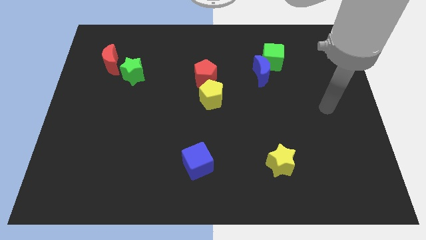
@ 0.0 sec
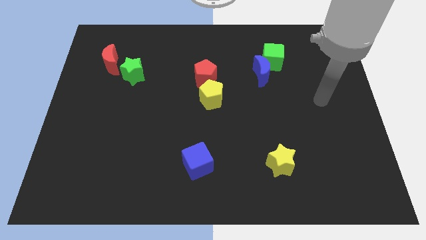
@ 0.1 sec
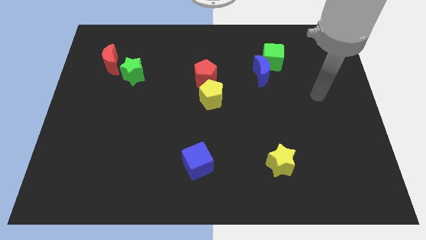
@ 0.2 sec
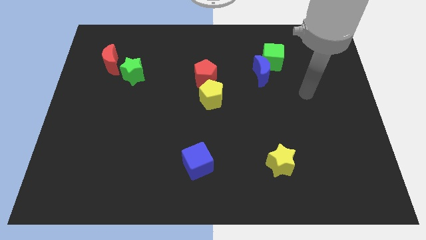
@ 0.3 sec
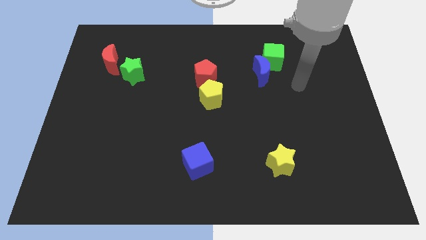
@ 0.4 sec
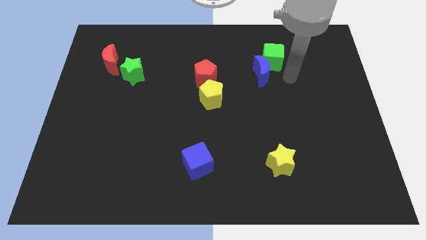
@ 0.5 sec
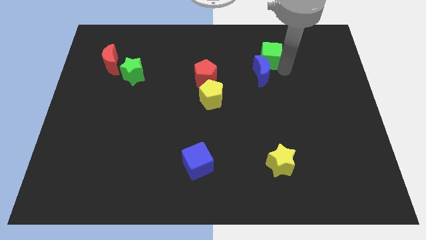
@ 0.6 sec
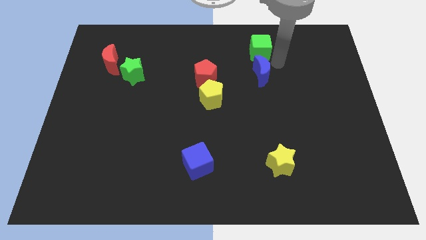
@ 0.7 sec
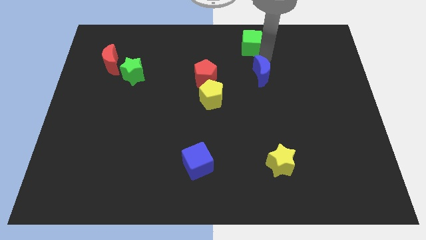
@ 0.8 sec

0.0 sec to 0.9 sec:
separate the blue moon from the green cube

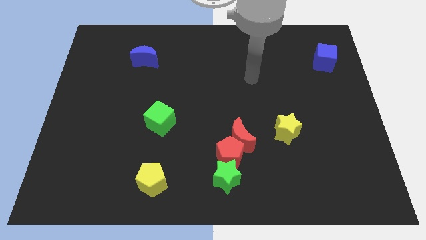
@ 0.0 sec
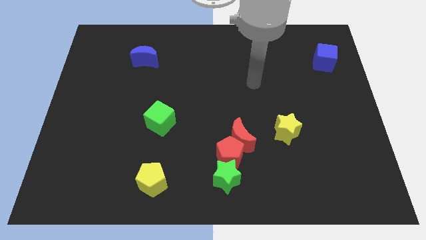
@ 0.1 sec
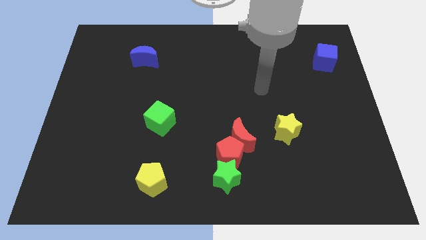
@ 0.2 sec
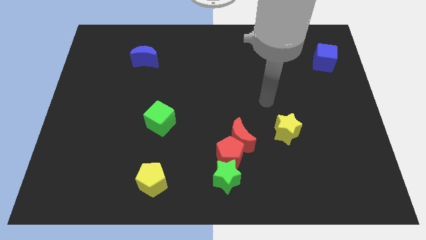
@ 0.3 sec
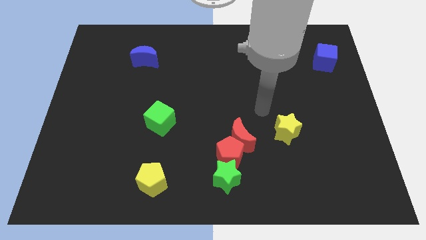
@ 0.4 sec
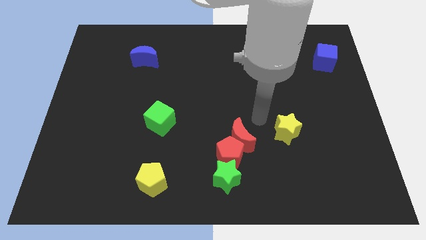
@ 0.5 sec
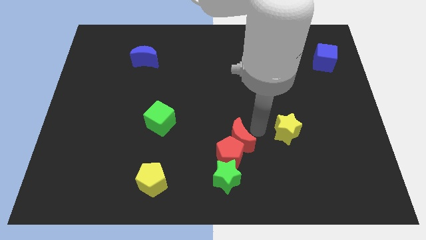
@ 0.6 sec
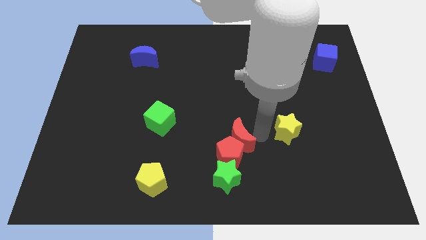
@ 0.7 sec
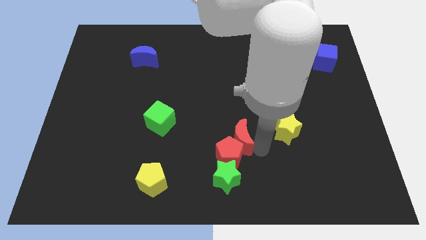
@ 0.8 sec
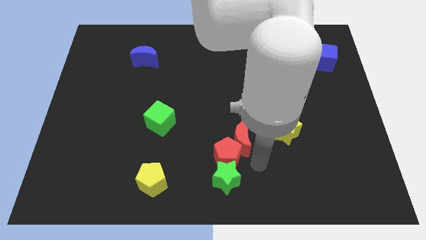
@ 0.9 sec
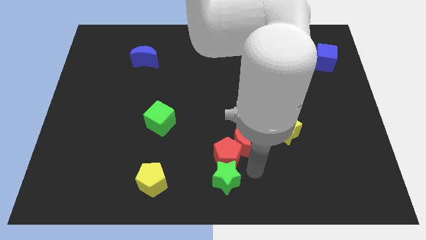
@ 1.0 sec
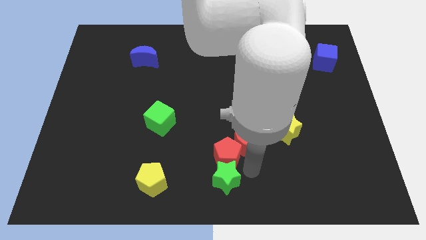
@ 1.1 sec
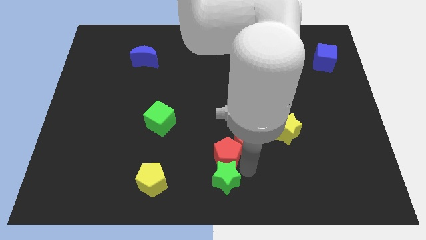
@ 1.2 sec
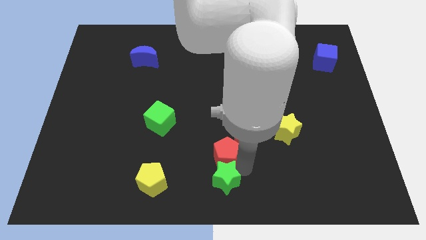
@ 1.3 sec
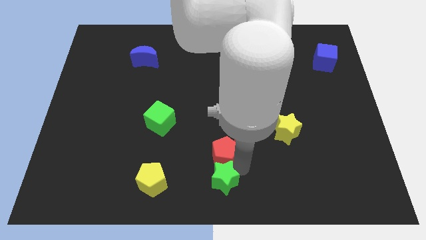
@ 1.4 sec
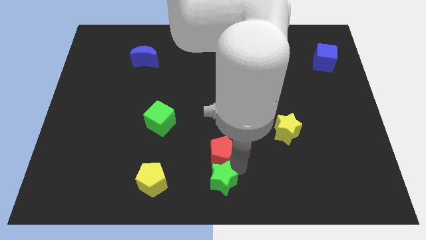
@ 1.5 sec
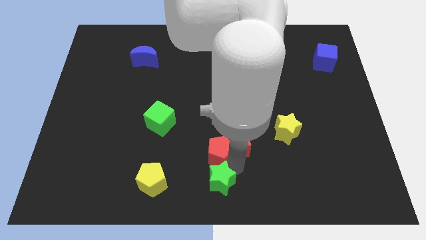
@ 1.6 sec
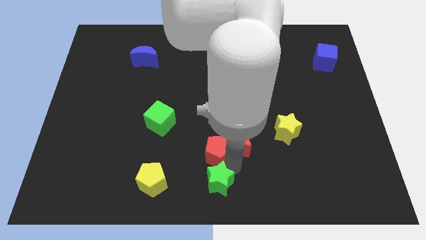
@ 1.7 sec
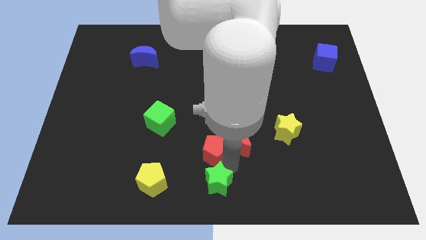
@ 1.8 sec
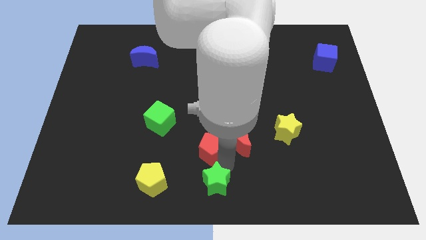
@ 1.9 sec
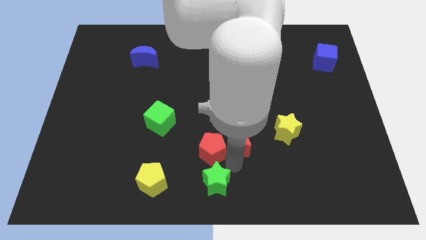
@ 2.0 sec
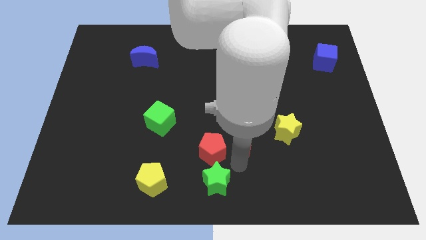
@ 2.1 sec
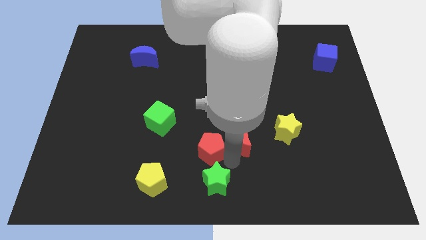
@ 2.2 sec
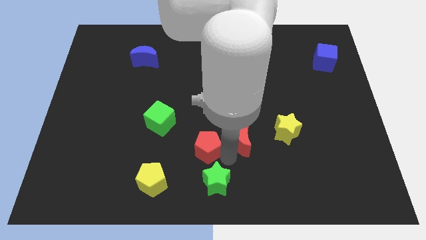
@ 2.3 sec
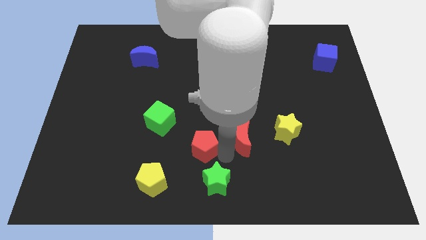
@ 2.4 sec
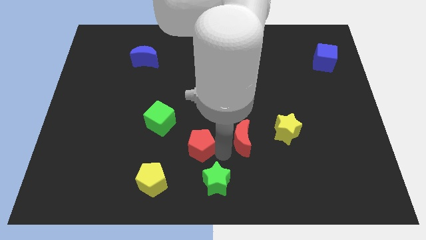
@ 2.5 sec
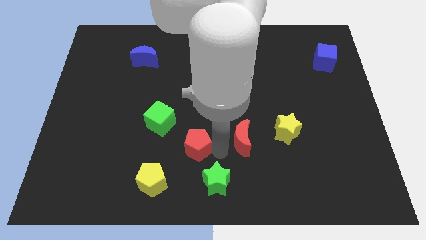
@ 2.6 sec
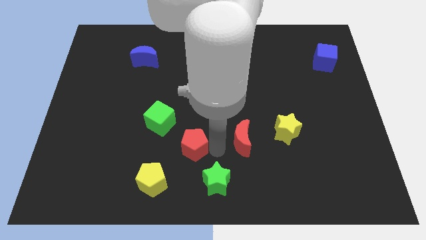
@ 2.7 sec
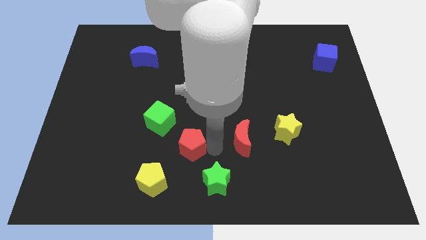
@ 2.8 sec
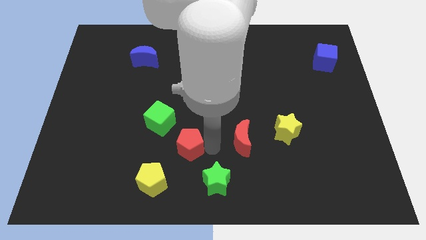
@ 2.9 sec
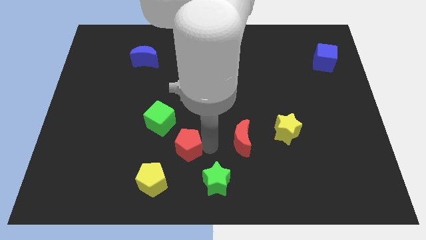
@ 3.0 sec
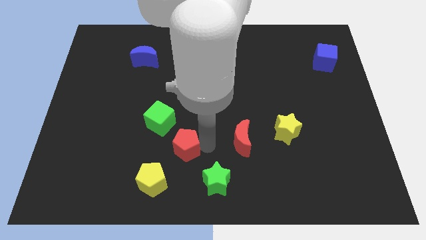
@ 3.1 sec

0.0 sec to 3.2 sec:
pull the red pentagon apart from the red moon and green star

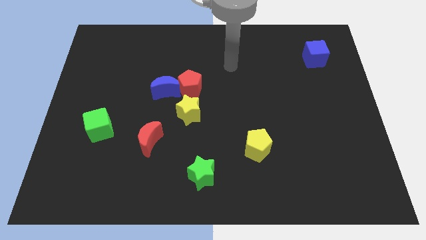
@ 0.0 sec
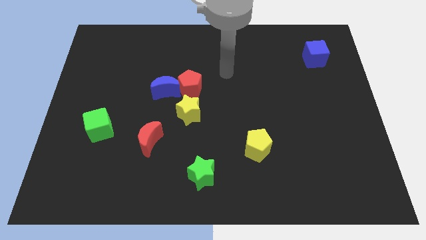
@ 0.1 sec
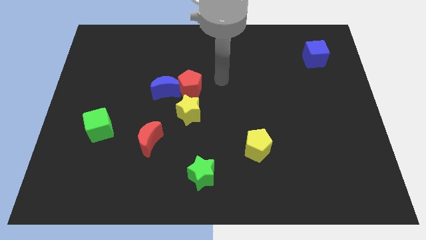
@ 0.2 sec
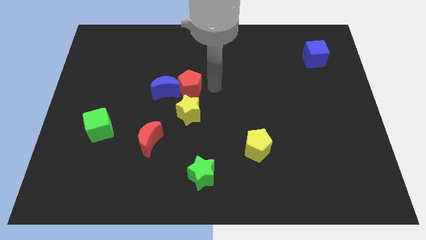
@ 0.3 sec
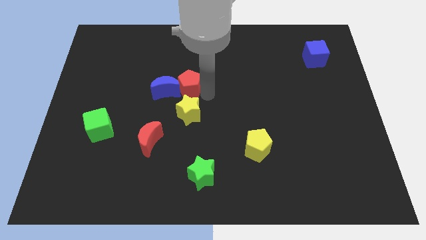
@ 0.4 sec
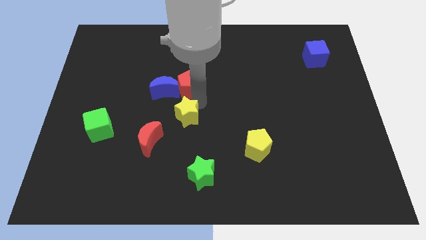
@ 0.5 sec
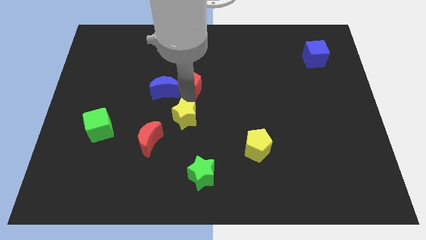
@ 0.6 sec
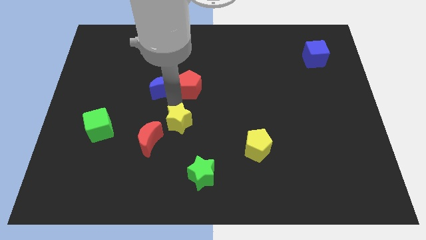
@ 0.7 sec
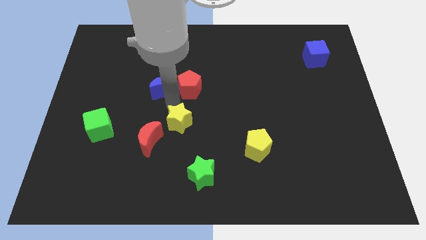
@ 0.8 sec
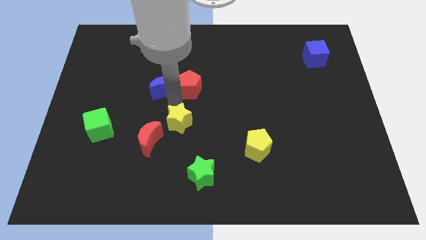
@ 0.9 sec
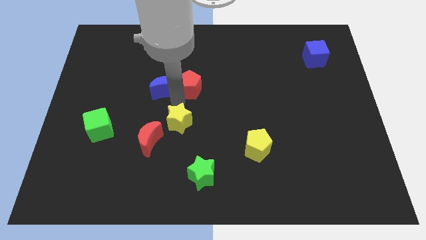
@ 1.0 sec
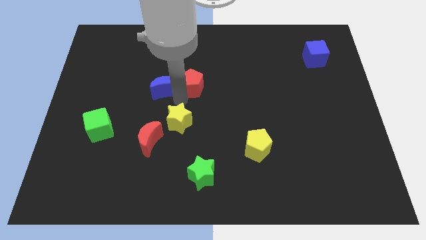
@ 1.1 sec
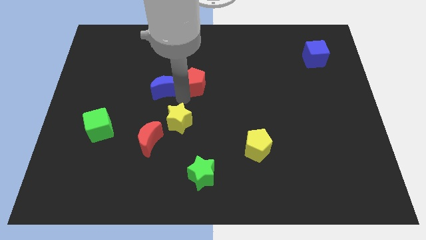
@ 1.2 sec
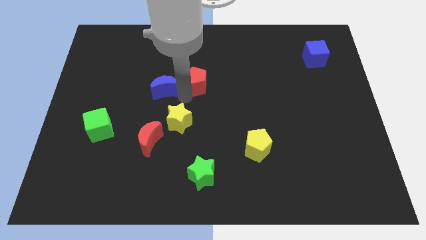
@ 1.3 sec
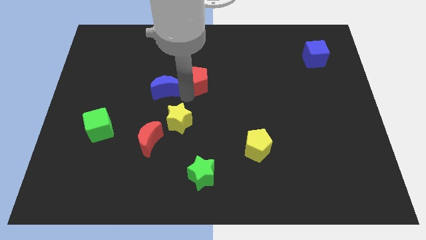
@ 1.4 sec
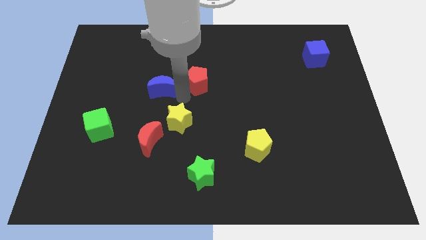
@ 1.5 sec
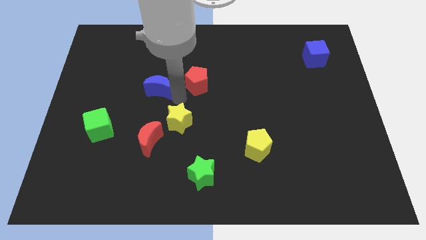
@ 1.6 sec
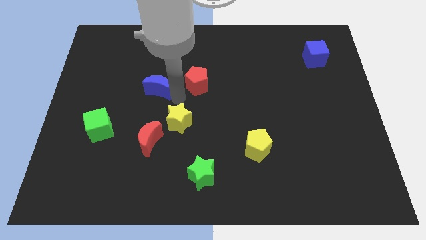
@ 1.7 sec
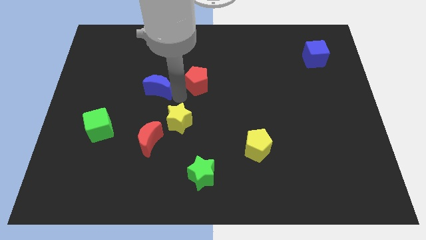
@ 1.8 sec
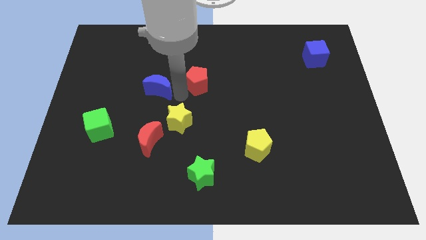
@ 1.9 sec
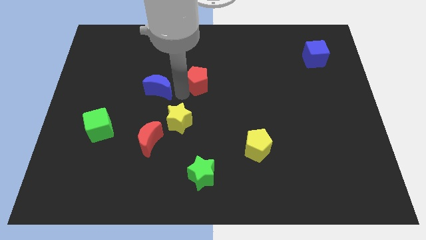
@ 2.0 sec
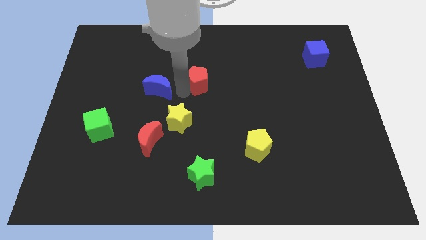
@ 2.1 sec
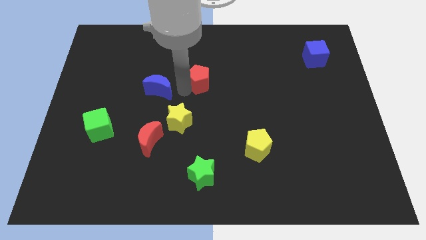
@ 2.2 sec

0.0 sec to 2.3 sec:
move the red pentagon away from the blue moon and yellow star

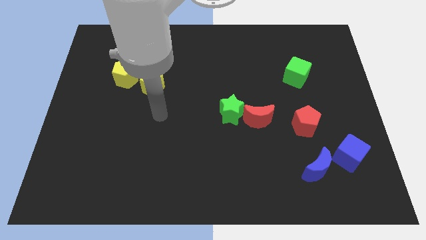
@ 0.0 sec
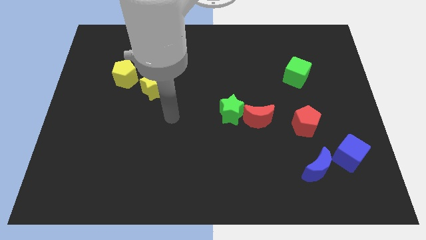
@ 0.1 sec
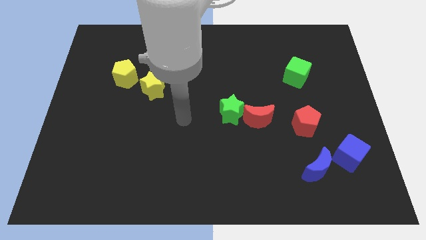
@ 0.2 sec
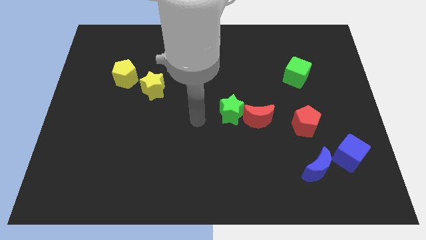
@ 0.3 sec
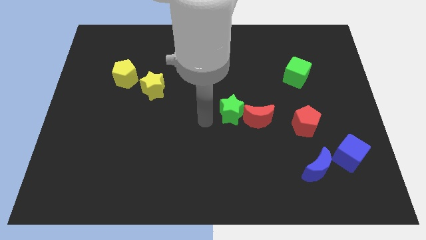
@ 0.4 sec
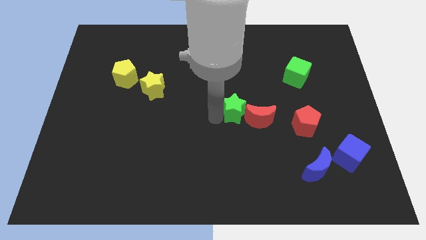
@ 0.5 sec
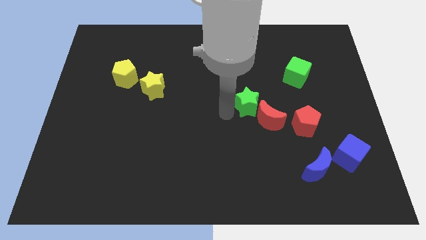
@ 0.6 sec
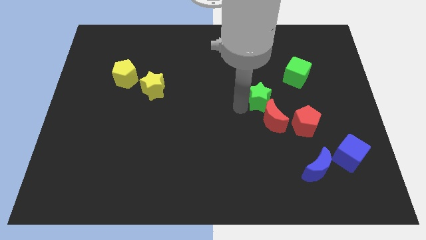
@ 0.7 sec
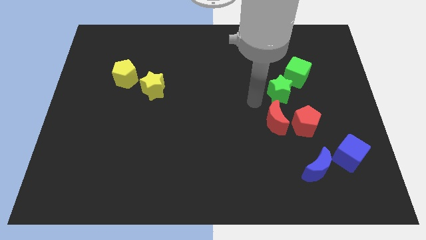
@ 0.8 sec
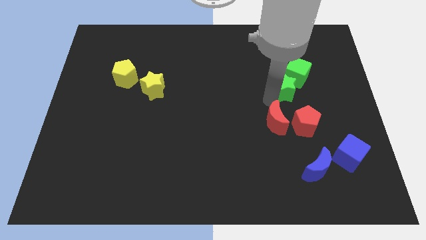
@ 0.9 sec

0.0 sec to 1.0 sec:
move the red moon away from the green star

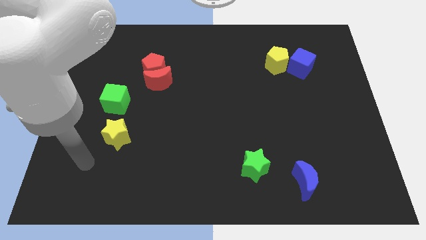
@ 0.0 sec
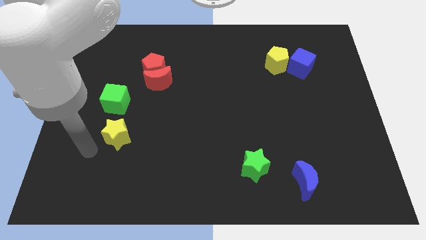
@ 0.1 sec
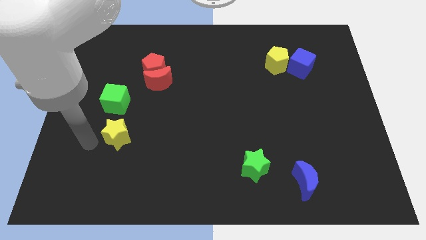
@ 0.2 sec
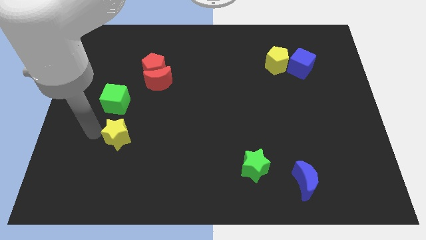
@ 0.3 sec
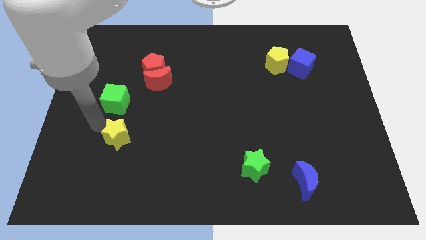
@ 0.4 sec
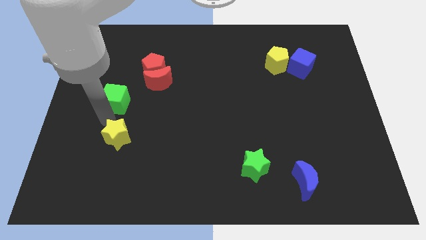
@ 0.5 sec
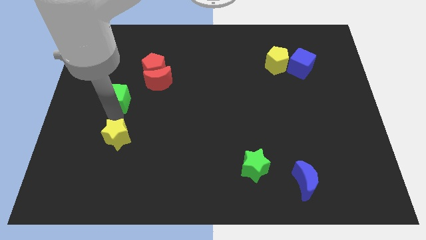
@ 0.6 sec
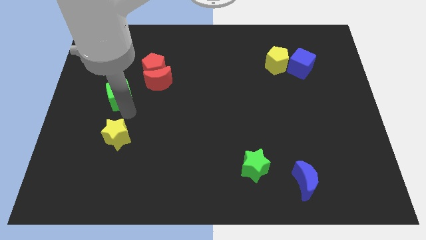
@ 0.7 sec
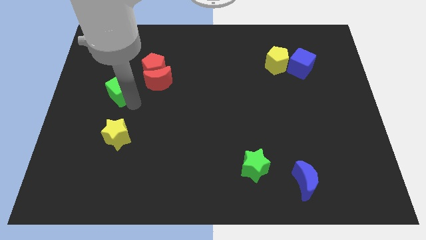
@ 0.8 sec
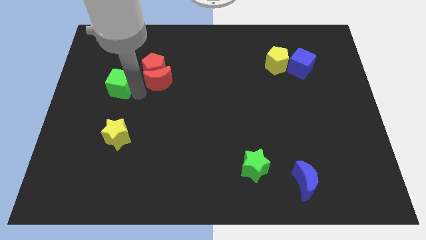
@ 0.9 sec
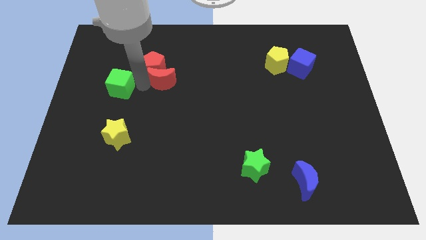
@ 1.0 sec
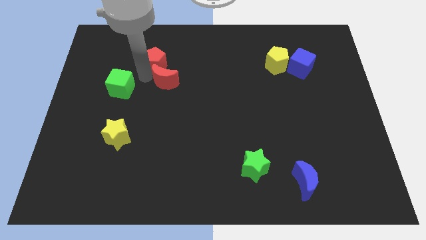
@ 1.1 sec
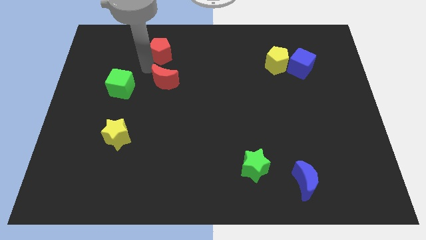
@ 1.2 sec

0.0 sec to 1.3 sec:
pull the red moon apart from the red pentagon

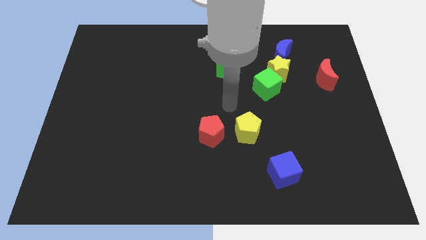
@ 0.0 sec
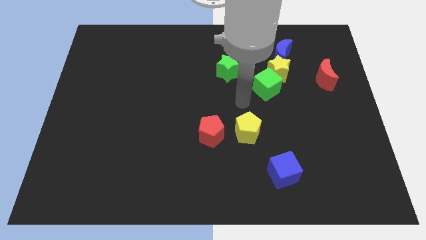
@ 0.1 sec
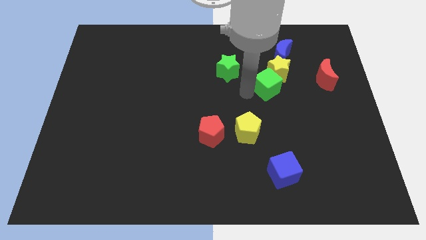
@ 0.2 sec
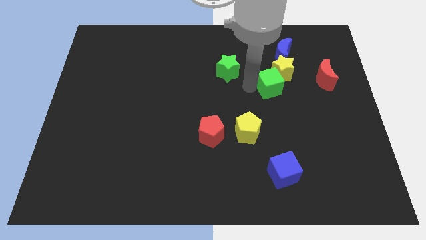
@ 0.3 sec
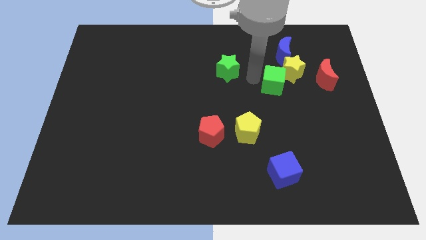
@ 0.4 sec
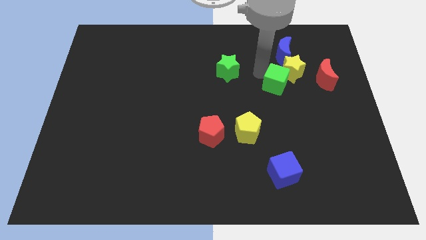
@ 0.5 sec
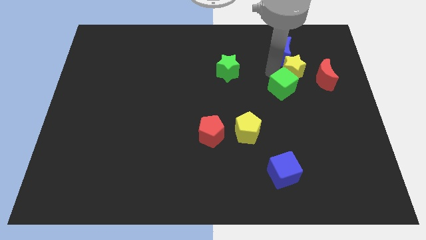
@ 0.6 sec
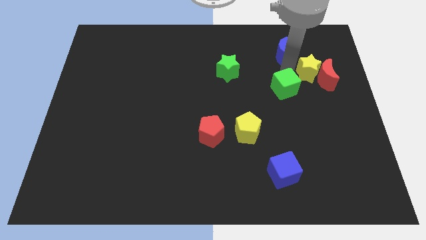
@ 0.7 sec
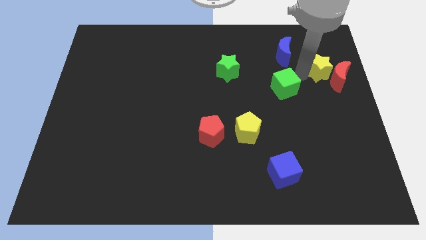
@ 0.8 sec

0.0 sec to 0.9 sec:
separate the green cube from the yellow star
